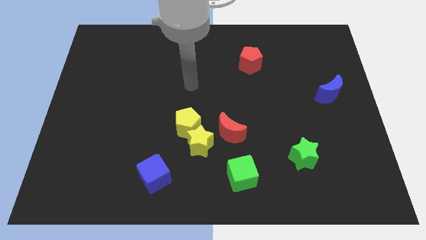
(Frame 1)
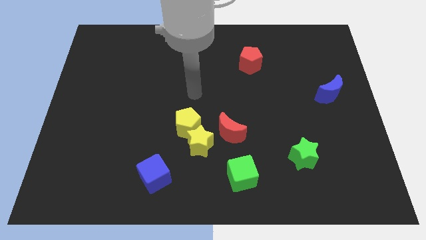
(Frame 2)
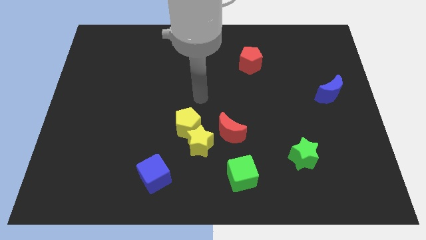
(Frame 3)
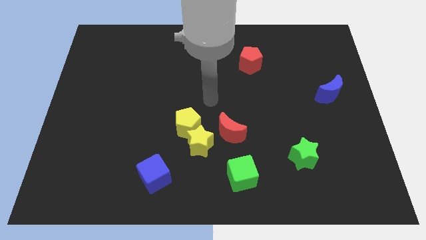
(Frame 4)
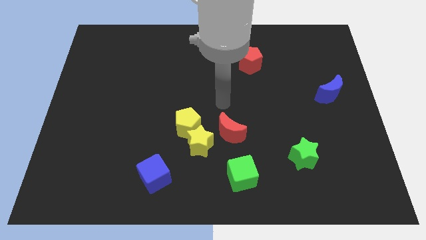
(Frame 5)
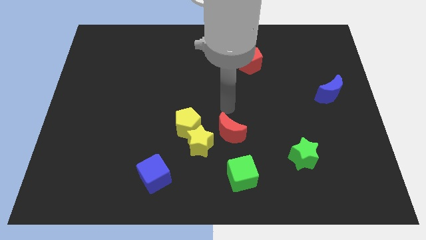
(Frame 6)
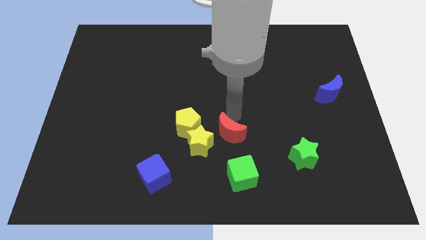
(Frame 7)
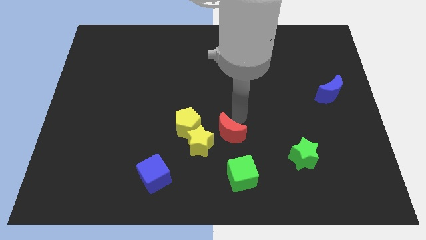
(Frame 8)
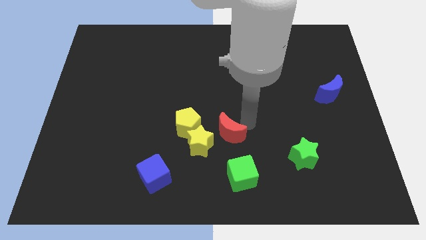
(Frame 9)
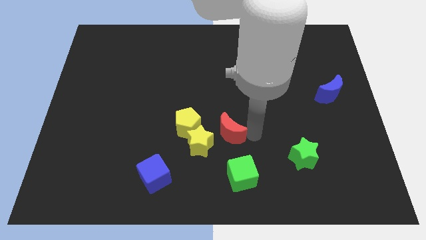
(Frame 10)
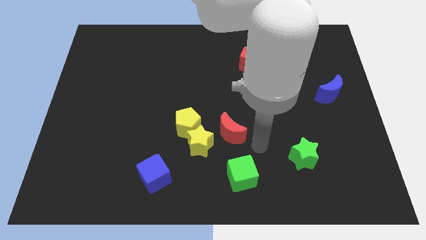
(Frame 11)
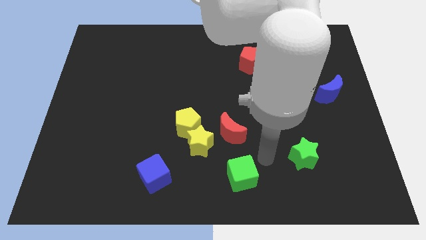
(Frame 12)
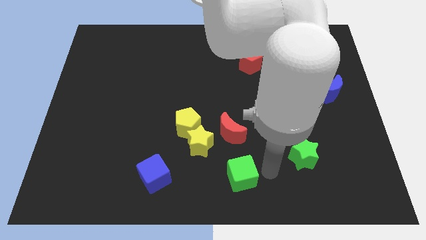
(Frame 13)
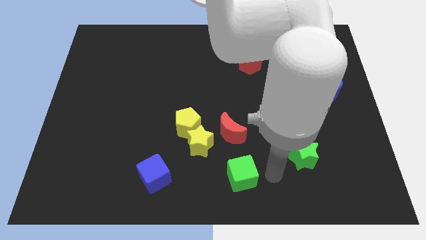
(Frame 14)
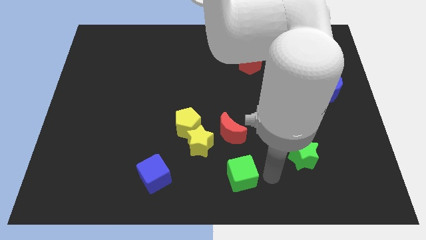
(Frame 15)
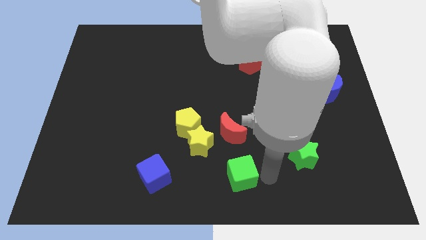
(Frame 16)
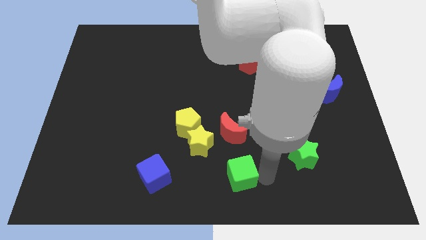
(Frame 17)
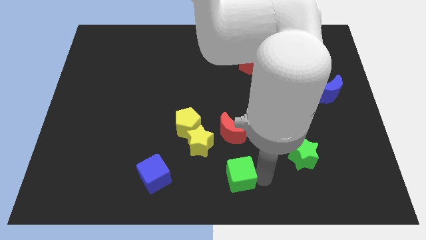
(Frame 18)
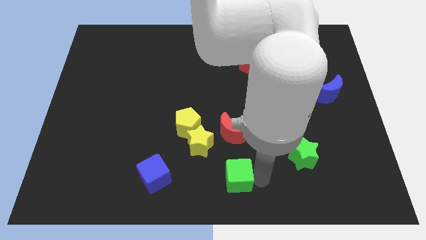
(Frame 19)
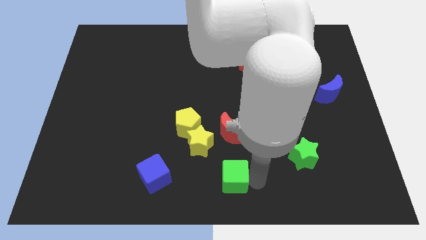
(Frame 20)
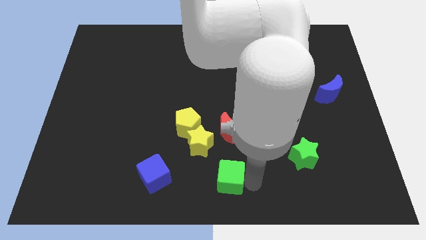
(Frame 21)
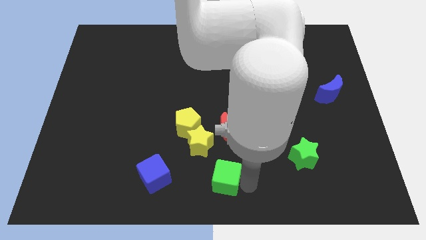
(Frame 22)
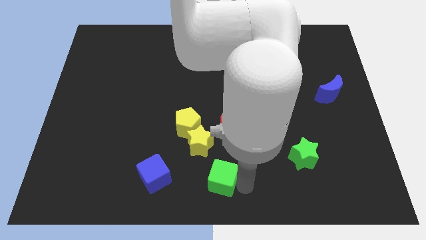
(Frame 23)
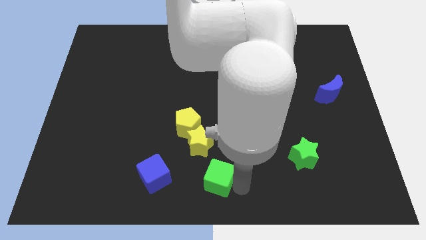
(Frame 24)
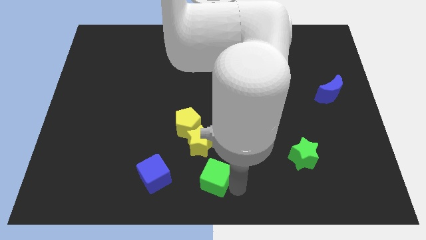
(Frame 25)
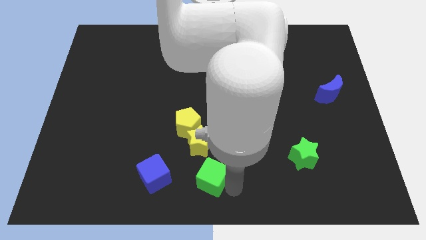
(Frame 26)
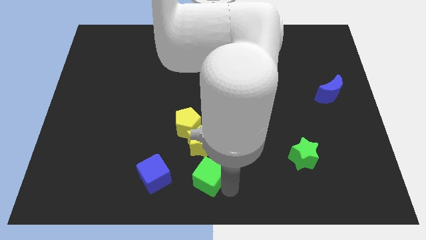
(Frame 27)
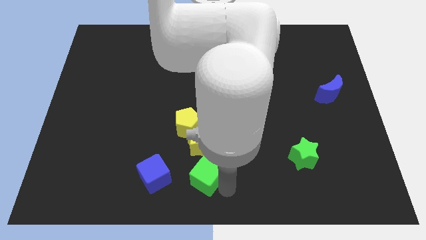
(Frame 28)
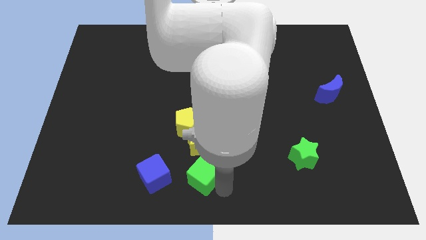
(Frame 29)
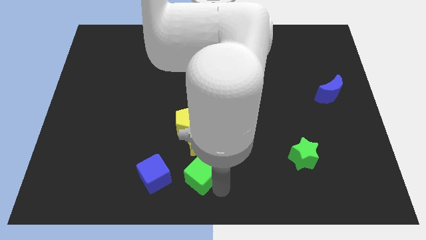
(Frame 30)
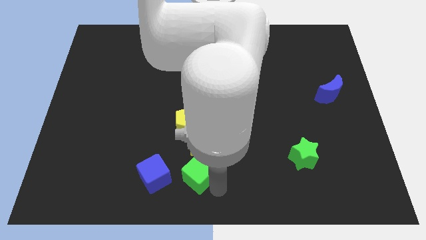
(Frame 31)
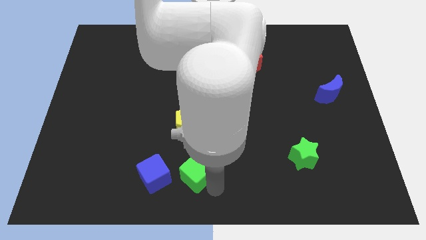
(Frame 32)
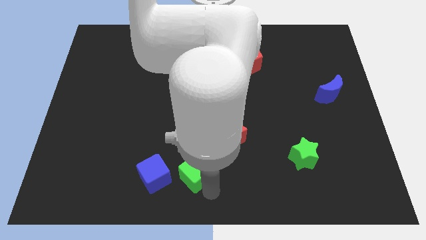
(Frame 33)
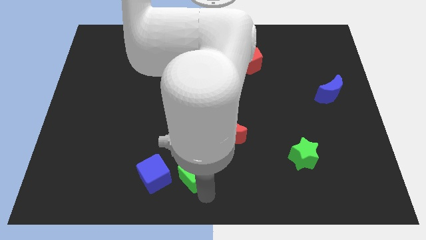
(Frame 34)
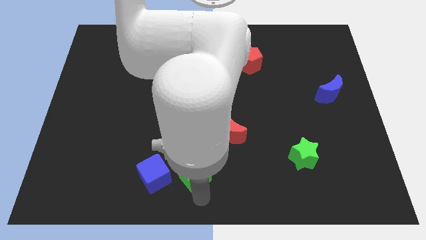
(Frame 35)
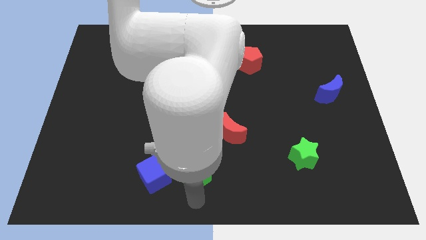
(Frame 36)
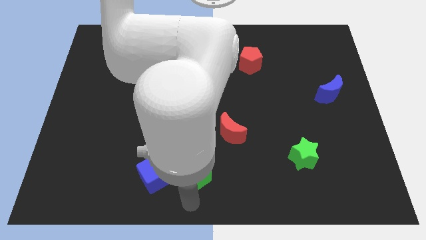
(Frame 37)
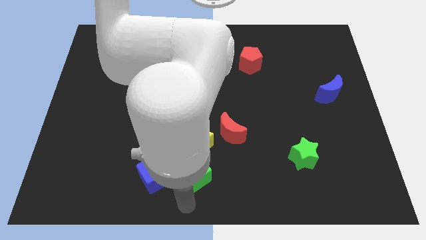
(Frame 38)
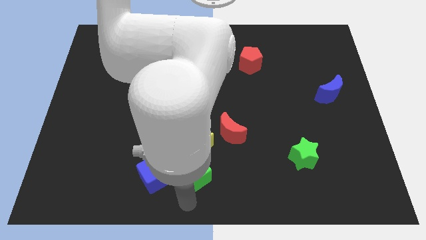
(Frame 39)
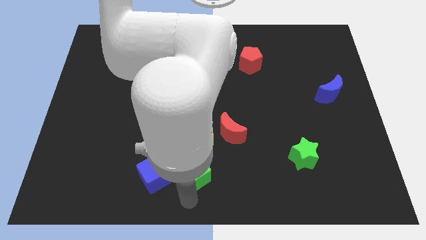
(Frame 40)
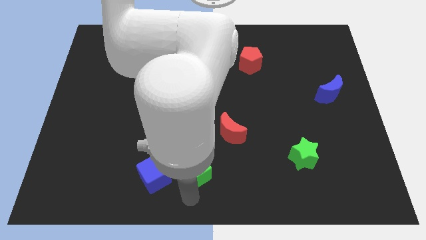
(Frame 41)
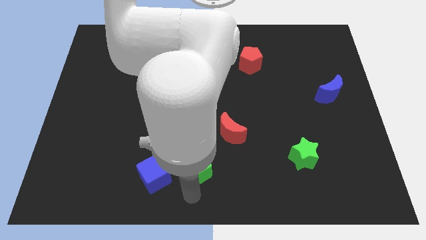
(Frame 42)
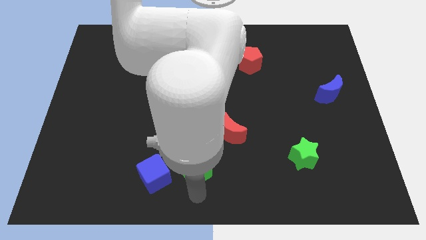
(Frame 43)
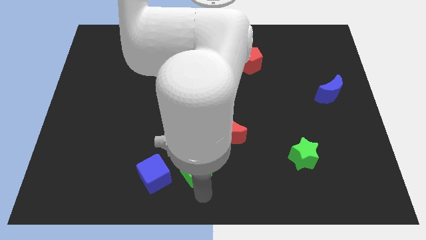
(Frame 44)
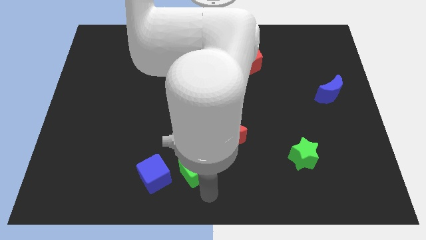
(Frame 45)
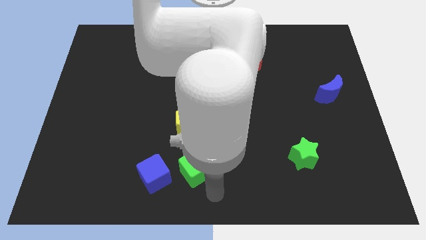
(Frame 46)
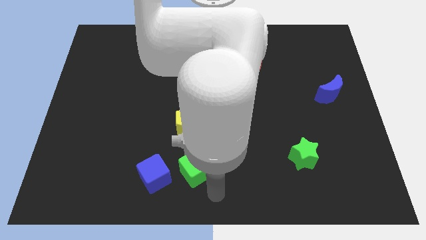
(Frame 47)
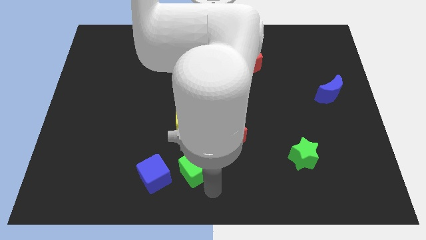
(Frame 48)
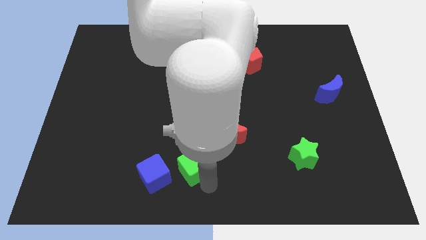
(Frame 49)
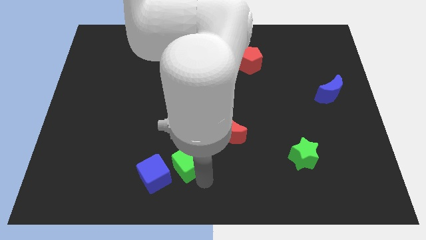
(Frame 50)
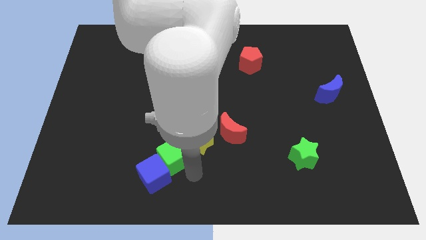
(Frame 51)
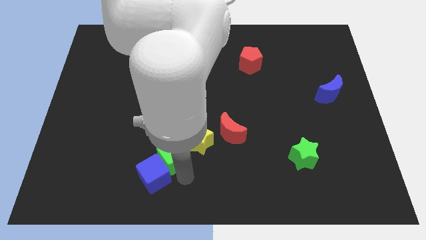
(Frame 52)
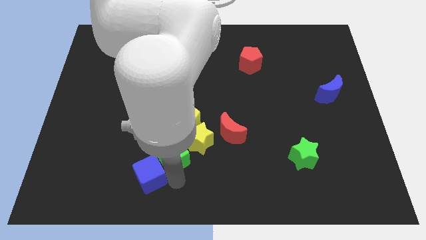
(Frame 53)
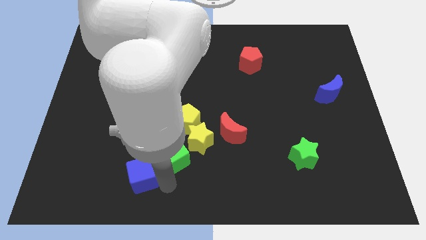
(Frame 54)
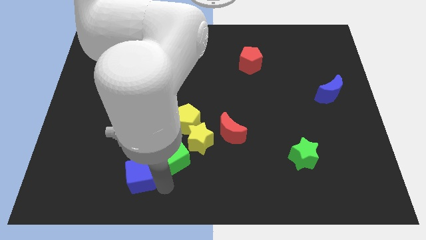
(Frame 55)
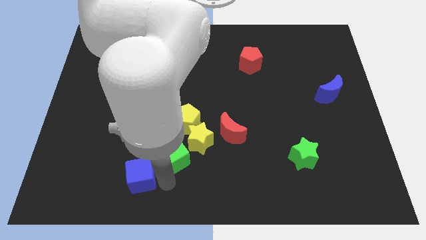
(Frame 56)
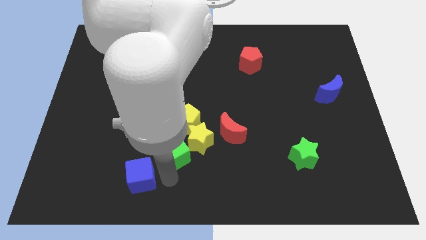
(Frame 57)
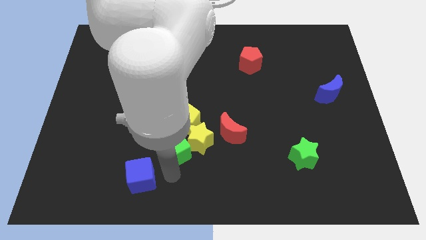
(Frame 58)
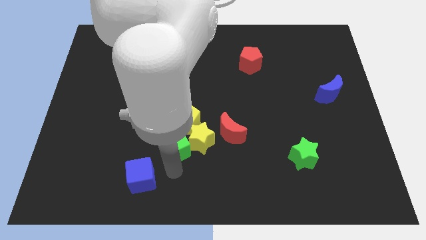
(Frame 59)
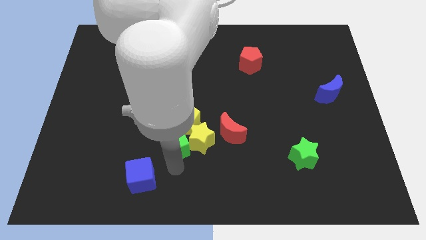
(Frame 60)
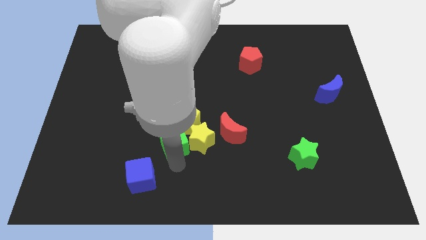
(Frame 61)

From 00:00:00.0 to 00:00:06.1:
move the green cube towards the yellow pentagon

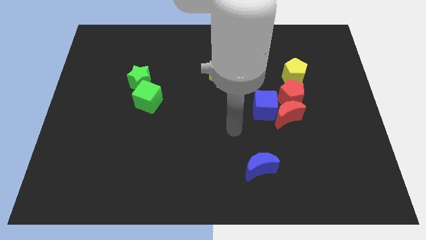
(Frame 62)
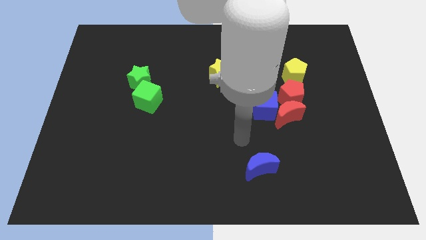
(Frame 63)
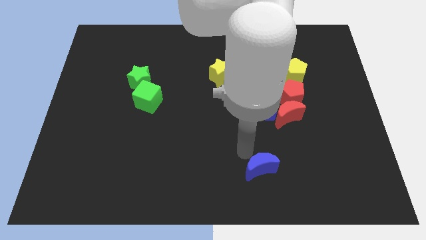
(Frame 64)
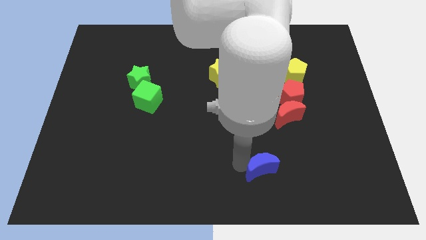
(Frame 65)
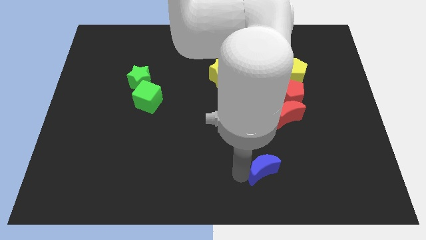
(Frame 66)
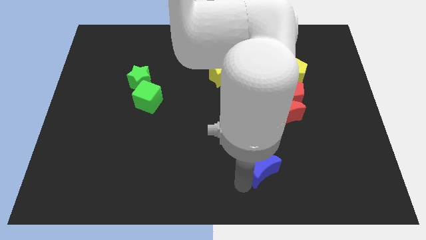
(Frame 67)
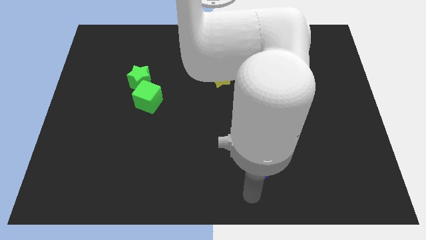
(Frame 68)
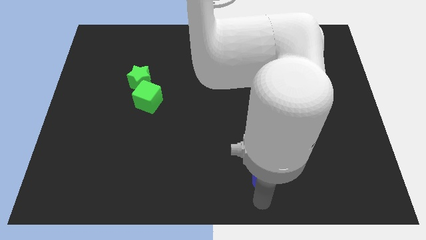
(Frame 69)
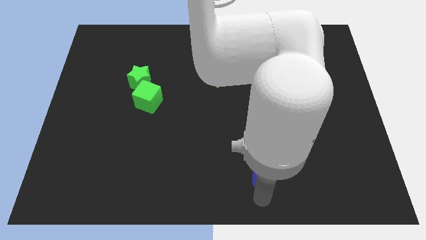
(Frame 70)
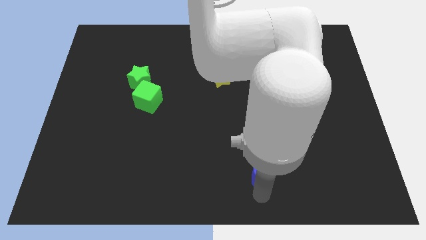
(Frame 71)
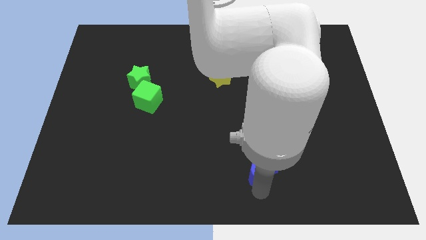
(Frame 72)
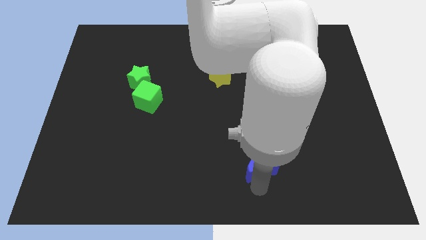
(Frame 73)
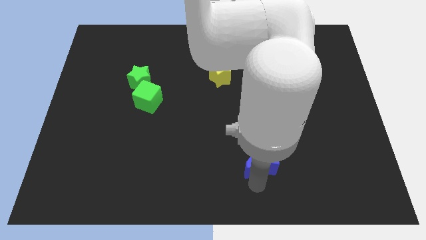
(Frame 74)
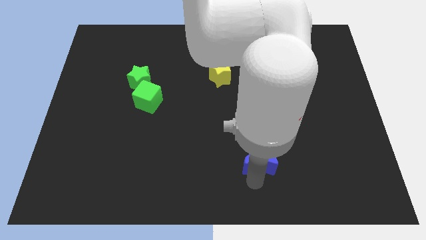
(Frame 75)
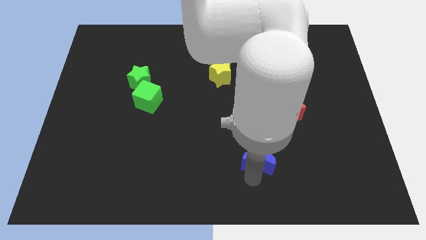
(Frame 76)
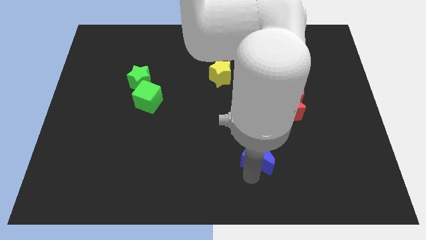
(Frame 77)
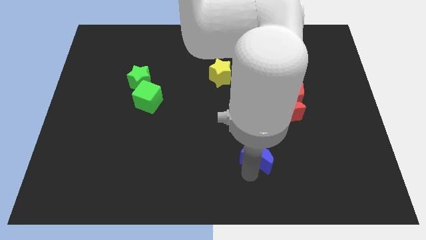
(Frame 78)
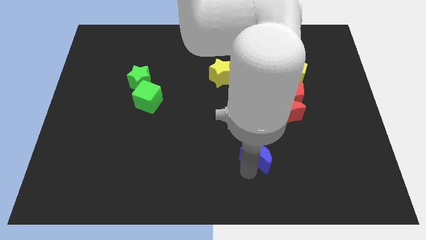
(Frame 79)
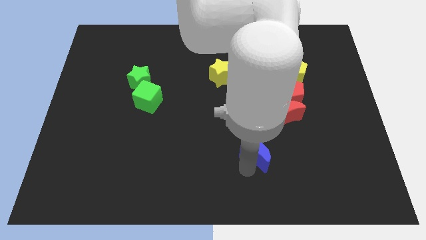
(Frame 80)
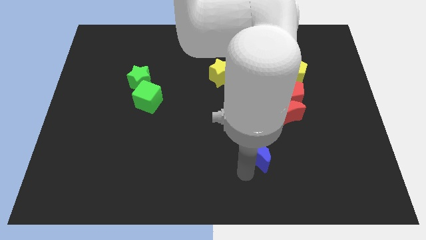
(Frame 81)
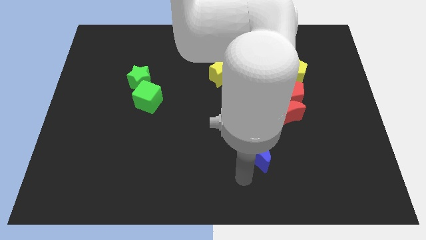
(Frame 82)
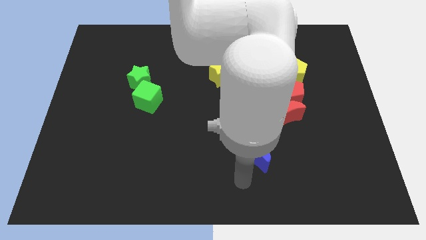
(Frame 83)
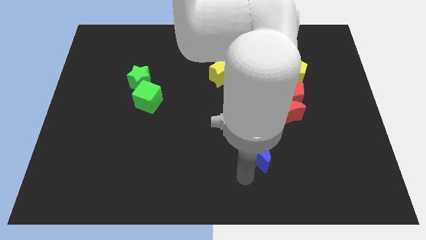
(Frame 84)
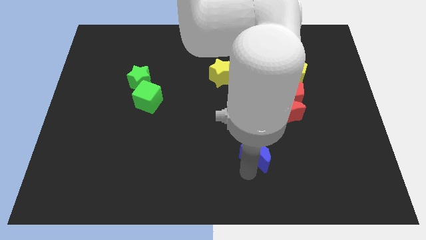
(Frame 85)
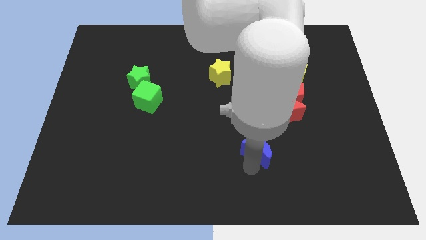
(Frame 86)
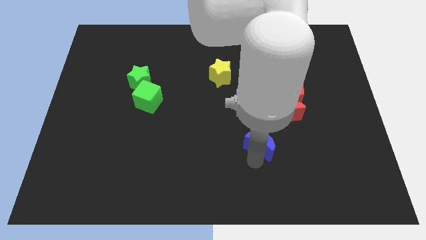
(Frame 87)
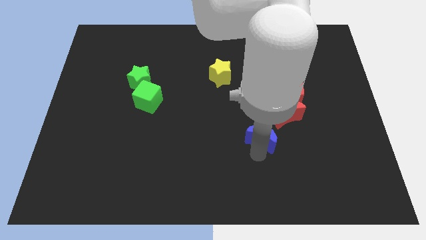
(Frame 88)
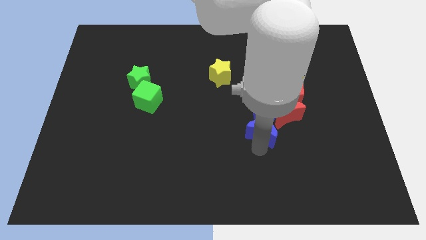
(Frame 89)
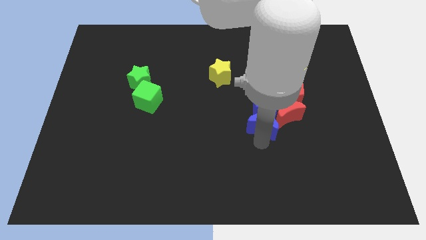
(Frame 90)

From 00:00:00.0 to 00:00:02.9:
move the blue moon towards the blue cube
